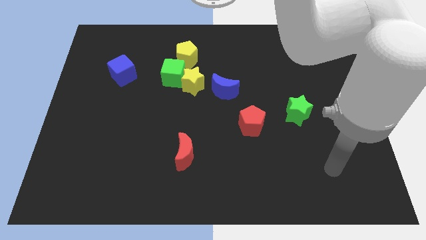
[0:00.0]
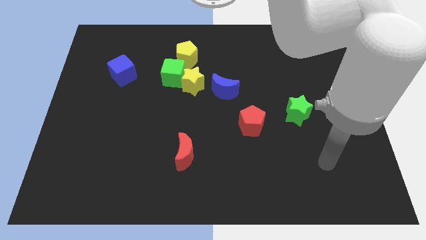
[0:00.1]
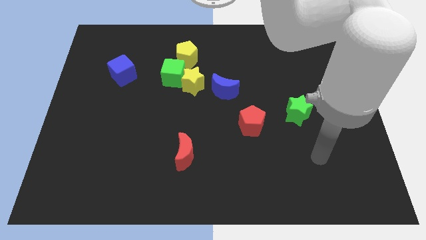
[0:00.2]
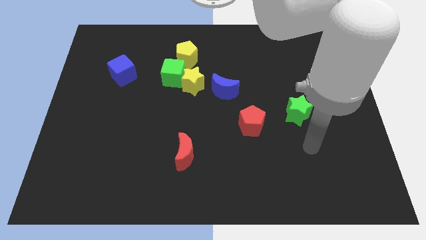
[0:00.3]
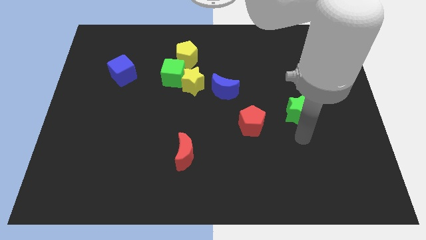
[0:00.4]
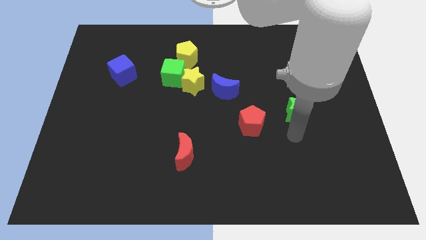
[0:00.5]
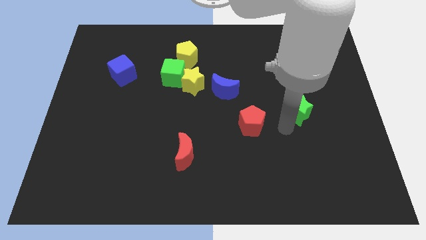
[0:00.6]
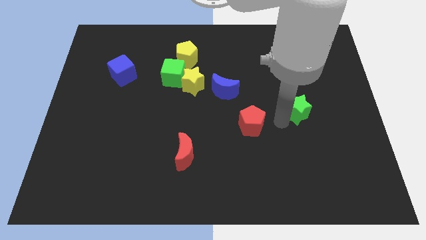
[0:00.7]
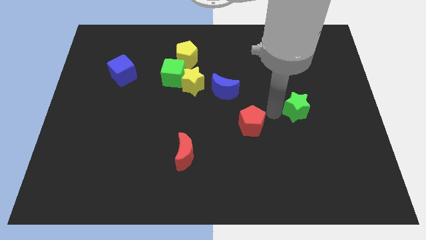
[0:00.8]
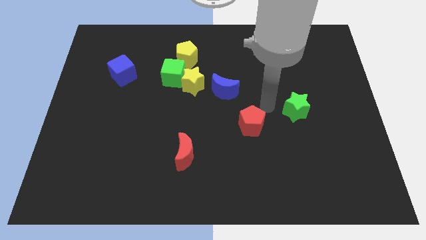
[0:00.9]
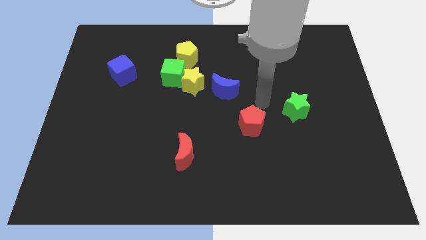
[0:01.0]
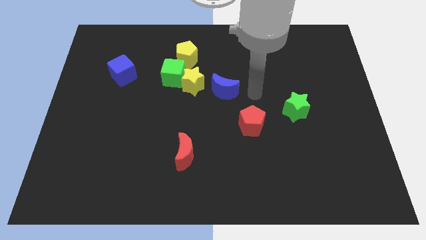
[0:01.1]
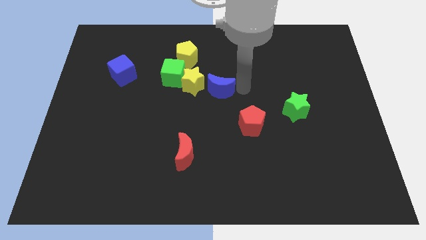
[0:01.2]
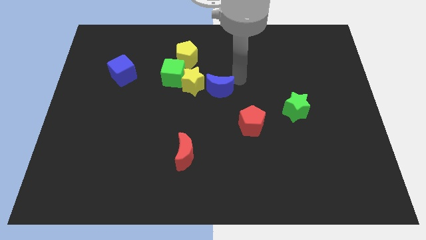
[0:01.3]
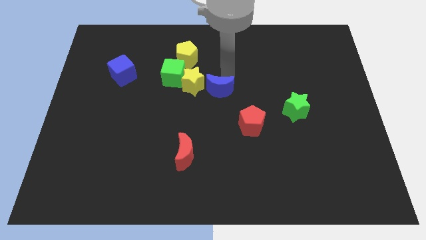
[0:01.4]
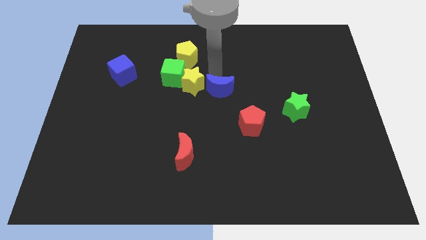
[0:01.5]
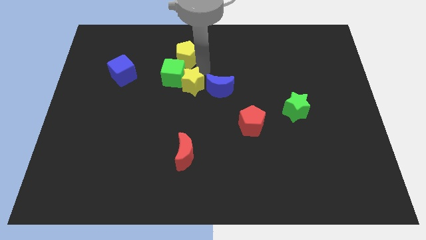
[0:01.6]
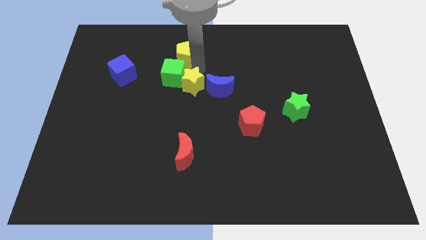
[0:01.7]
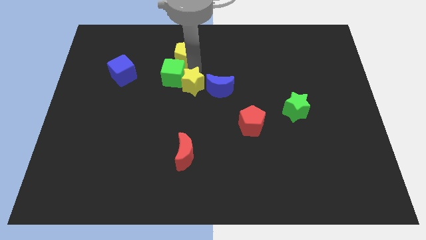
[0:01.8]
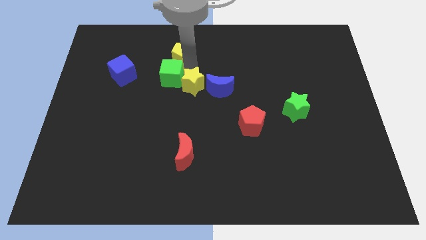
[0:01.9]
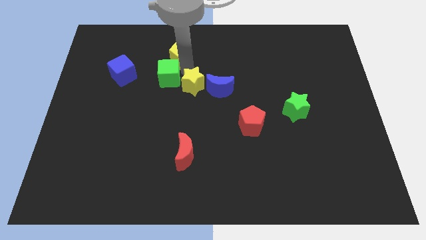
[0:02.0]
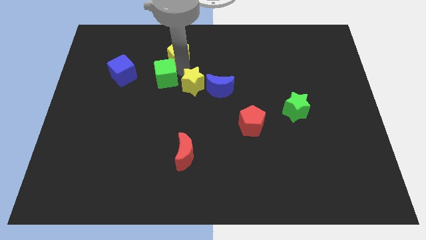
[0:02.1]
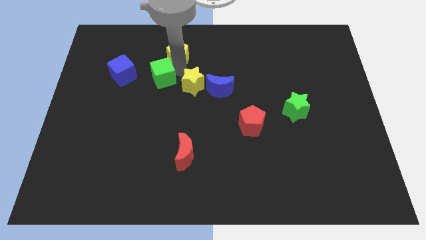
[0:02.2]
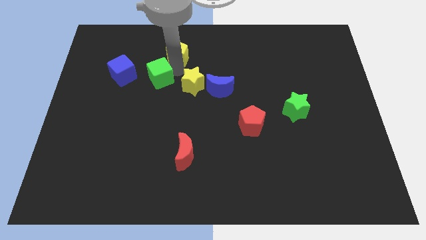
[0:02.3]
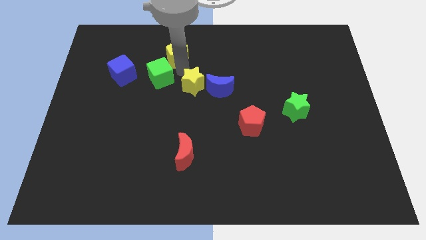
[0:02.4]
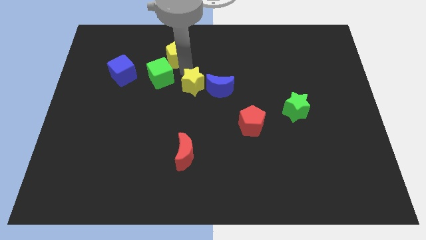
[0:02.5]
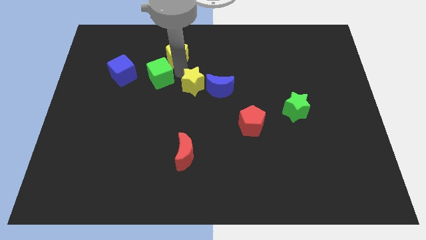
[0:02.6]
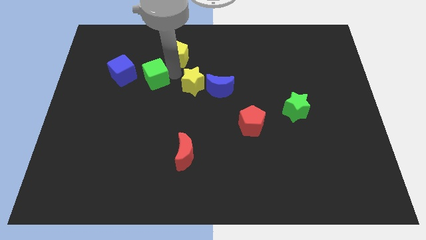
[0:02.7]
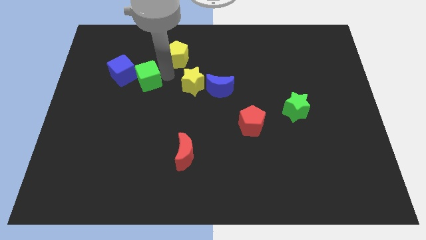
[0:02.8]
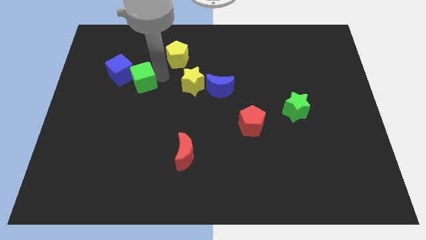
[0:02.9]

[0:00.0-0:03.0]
move the green cube away from the yellow star and yellow pentagon

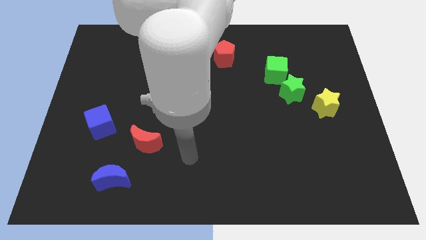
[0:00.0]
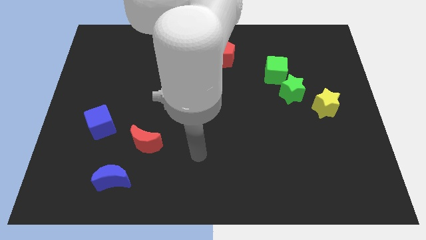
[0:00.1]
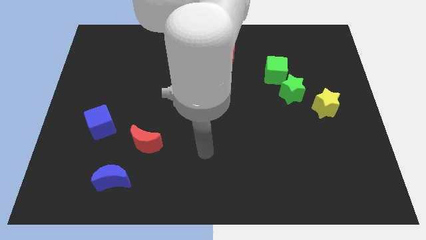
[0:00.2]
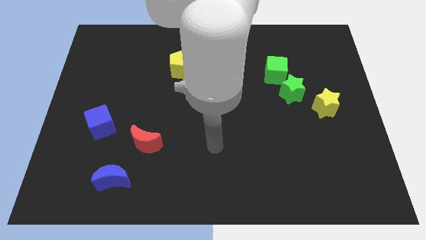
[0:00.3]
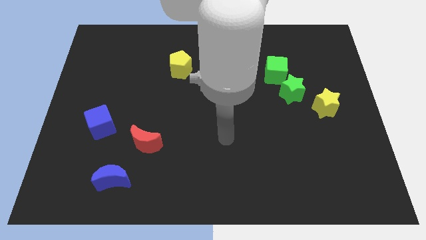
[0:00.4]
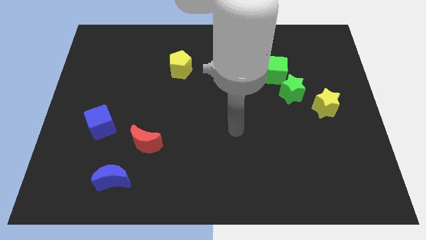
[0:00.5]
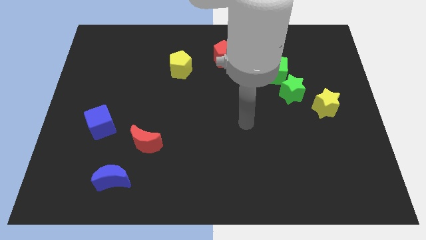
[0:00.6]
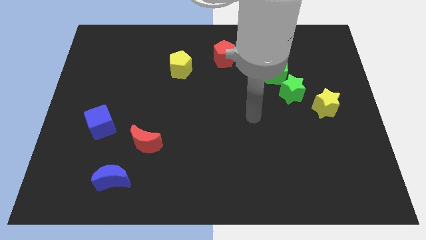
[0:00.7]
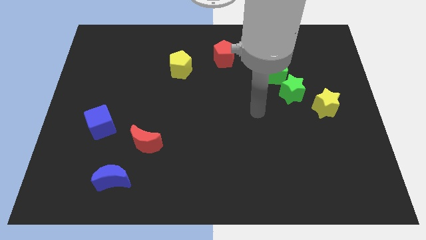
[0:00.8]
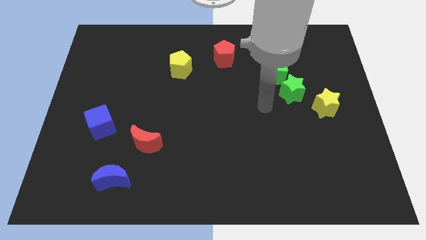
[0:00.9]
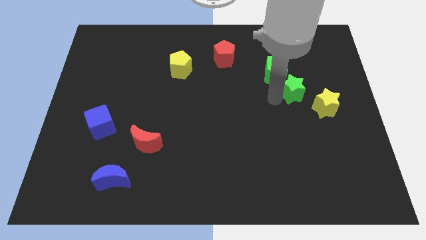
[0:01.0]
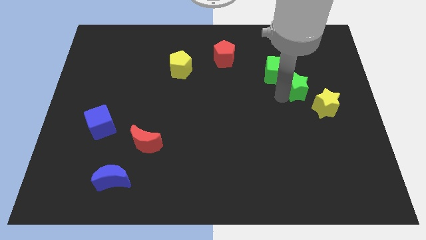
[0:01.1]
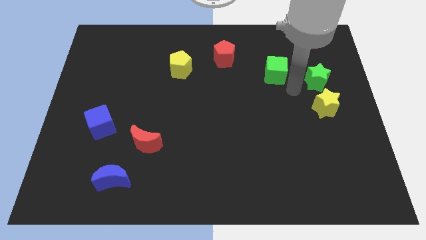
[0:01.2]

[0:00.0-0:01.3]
separate the green cube from the green star

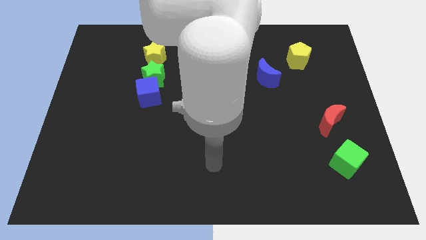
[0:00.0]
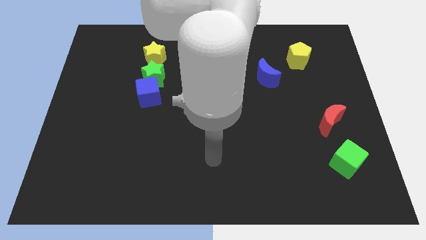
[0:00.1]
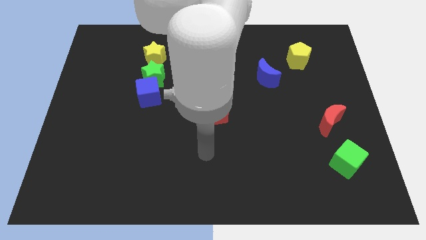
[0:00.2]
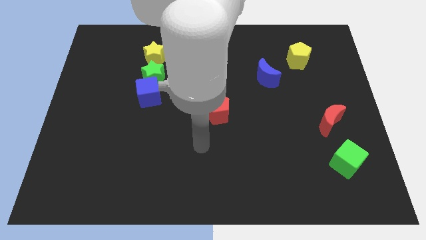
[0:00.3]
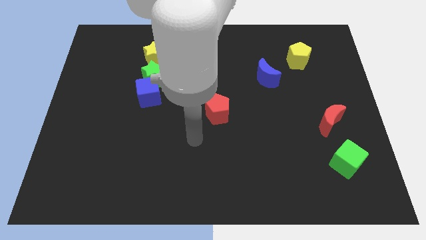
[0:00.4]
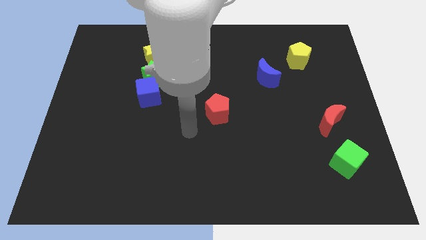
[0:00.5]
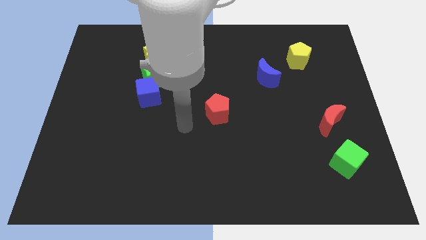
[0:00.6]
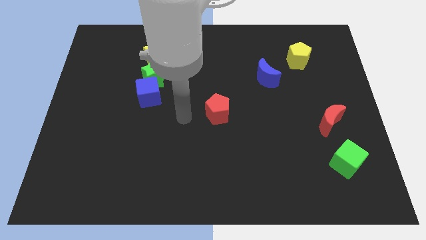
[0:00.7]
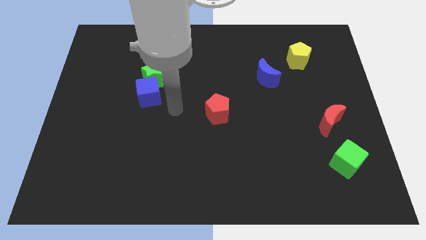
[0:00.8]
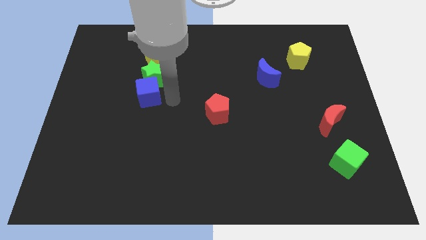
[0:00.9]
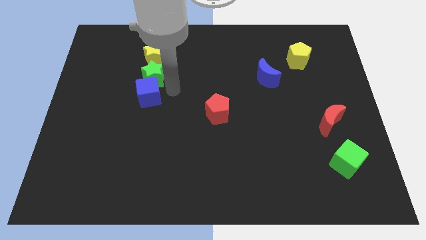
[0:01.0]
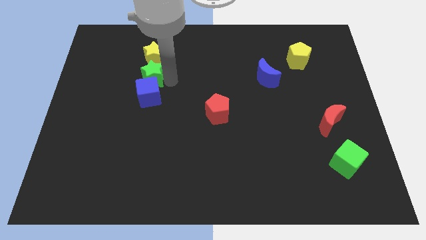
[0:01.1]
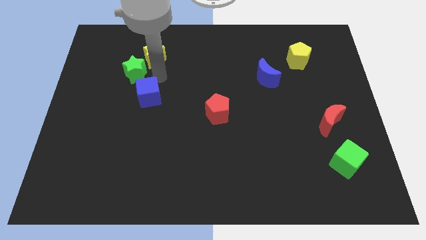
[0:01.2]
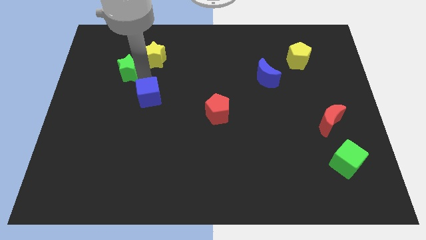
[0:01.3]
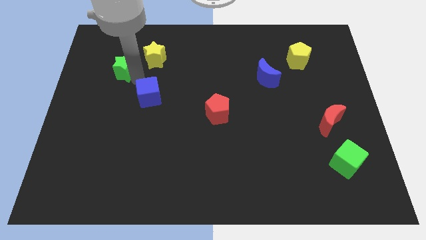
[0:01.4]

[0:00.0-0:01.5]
separate the blue cube from the green star

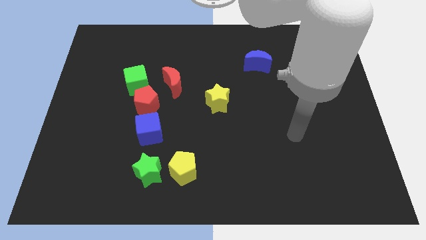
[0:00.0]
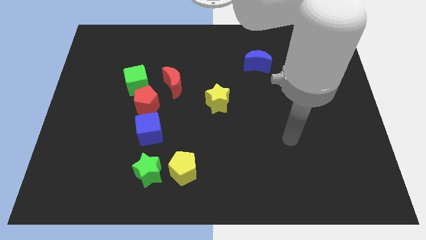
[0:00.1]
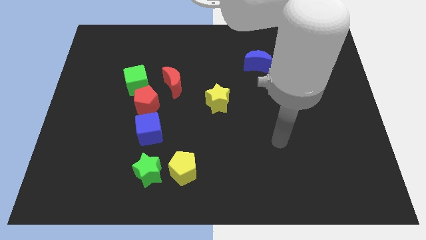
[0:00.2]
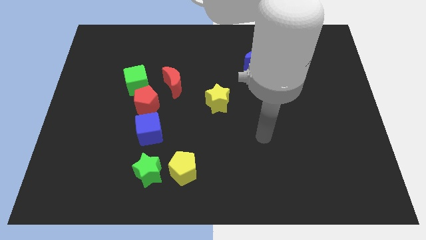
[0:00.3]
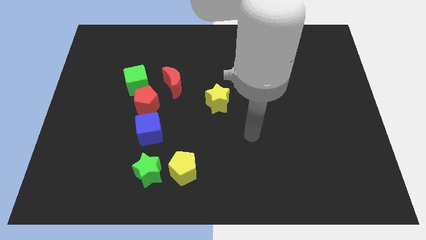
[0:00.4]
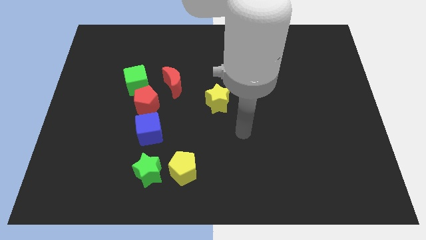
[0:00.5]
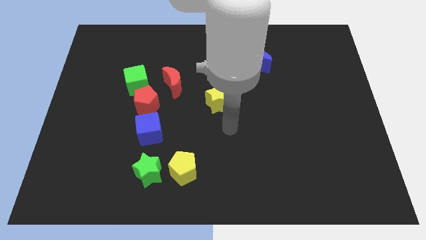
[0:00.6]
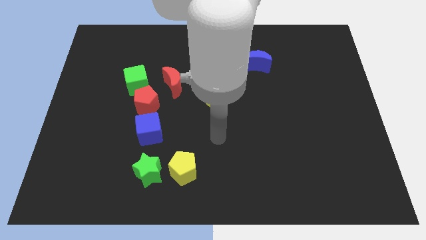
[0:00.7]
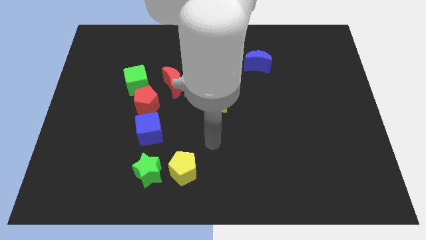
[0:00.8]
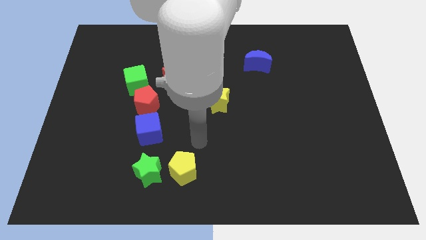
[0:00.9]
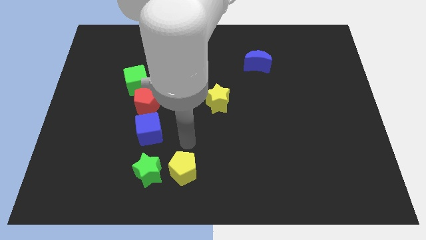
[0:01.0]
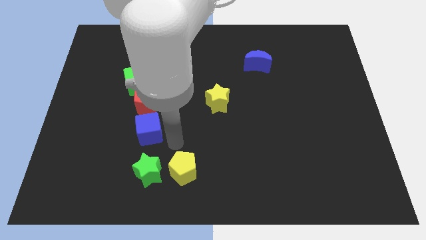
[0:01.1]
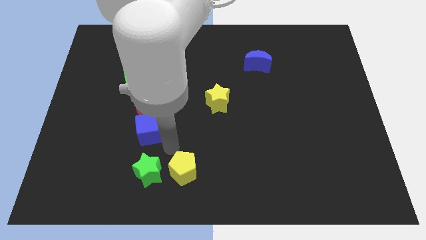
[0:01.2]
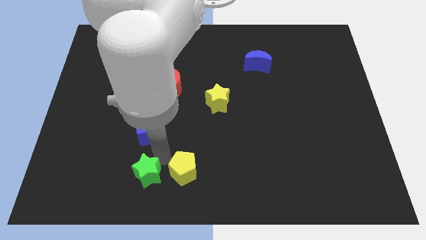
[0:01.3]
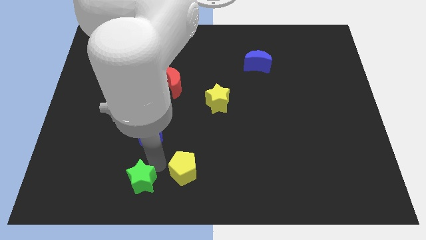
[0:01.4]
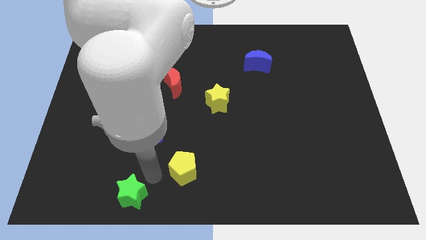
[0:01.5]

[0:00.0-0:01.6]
separate the yellow pentagon from the green star

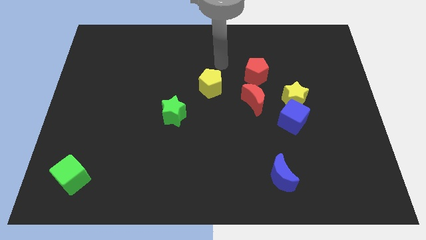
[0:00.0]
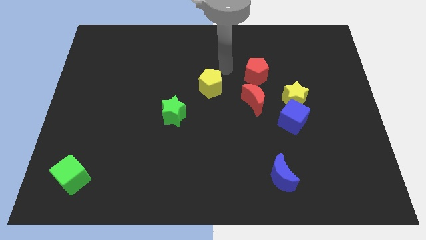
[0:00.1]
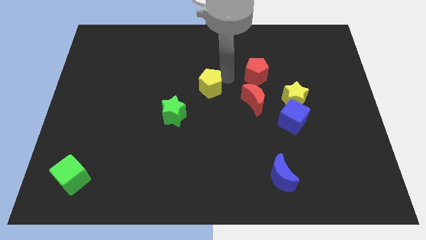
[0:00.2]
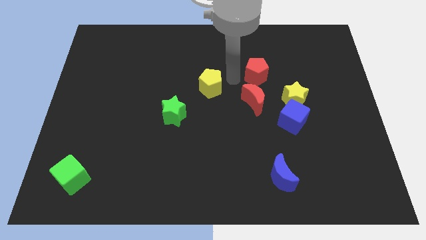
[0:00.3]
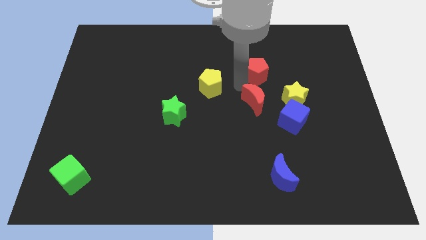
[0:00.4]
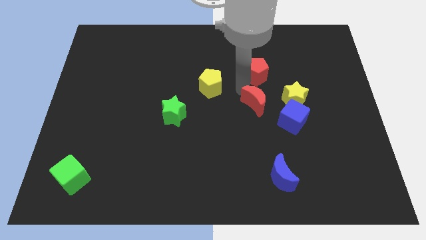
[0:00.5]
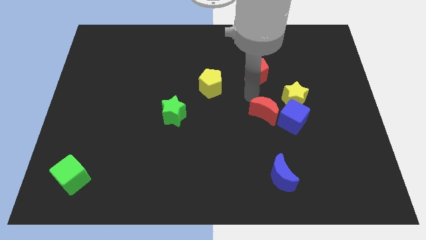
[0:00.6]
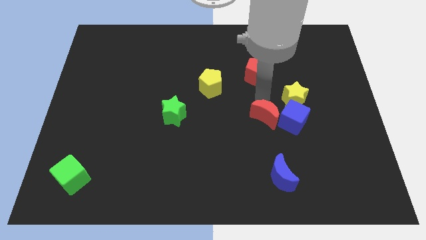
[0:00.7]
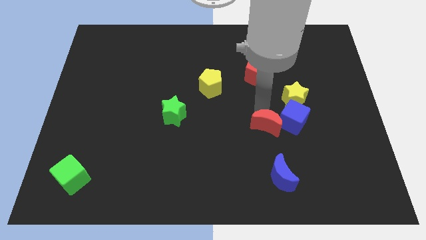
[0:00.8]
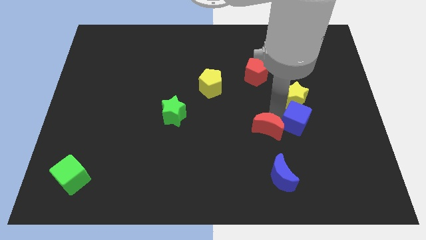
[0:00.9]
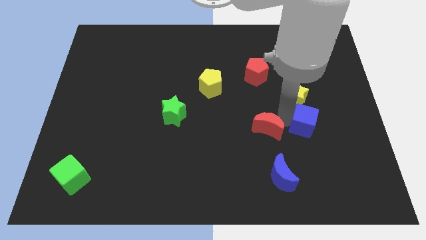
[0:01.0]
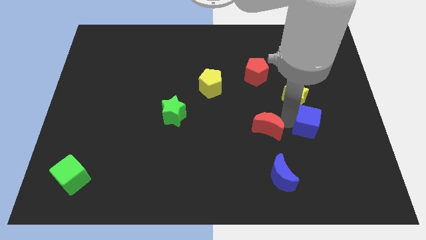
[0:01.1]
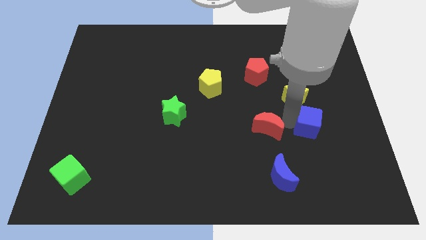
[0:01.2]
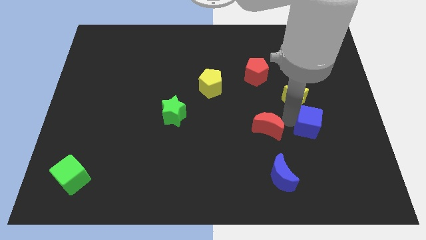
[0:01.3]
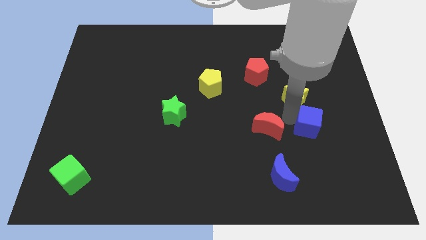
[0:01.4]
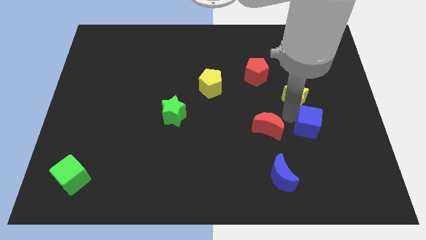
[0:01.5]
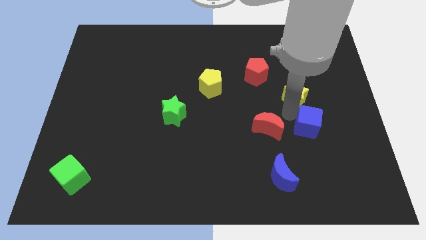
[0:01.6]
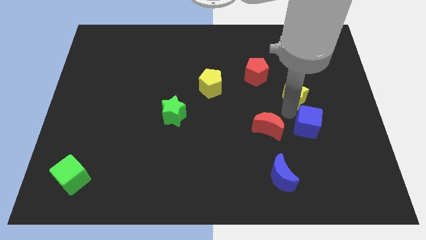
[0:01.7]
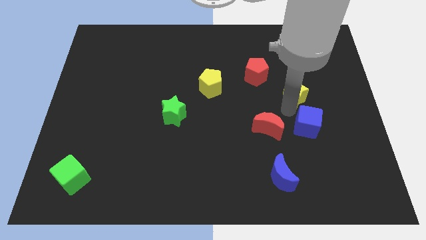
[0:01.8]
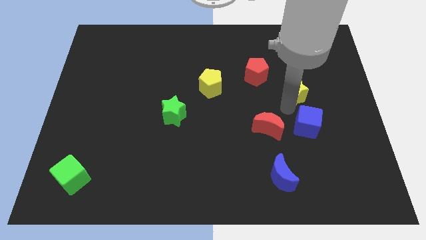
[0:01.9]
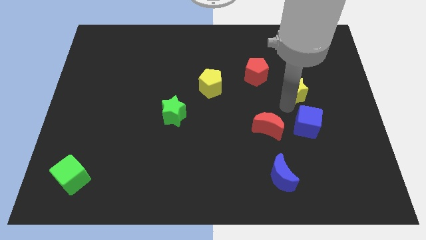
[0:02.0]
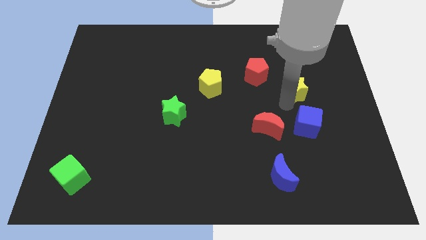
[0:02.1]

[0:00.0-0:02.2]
pull the yellow star apart from the blue cube and red moon
